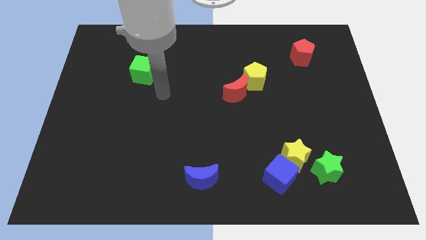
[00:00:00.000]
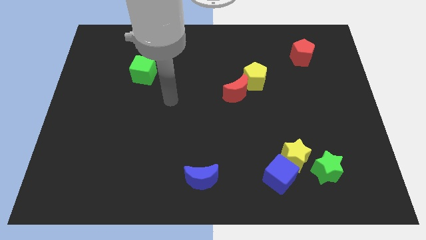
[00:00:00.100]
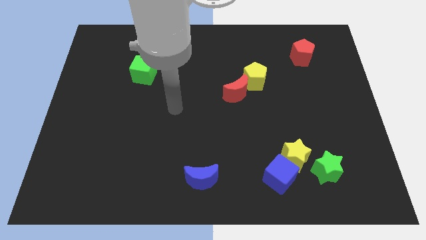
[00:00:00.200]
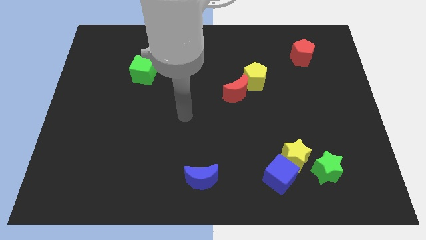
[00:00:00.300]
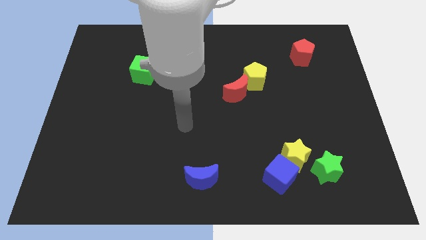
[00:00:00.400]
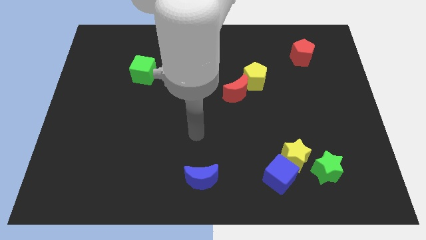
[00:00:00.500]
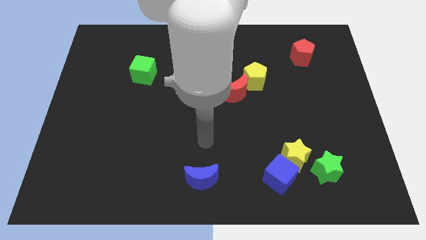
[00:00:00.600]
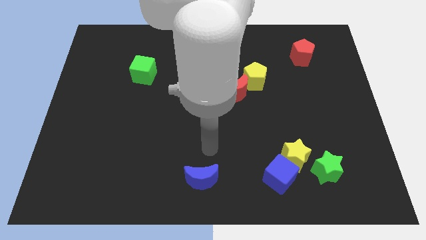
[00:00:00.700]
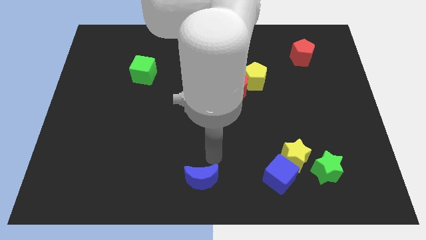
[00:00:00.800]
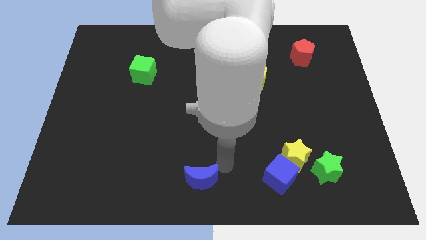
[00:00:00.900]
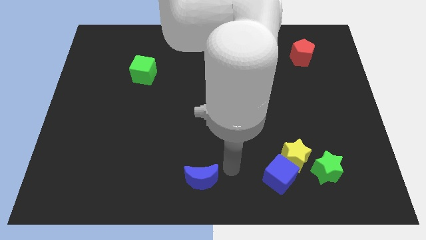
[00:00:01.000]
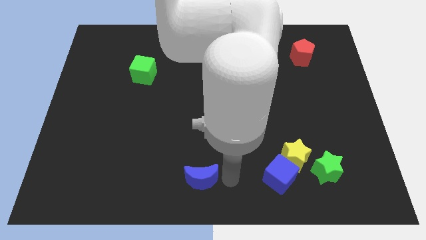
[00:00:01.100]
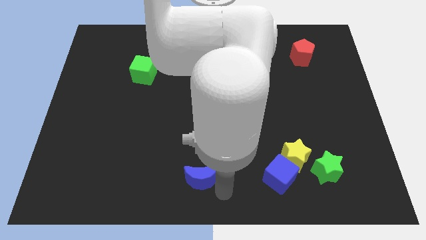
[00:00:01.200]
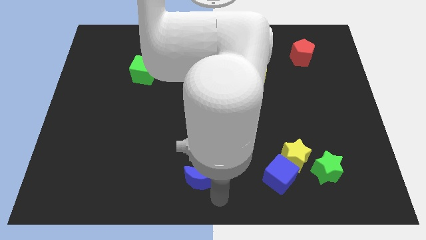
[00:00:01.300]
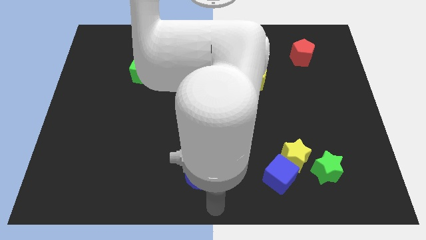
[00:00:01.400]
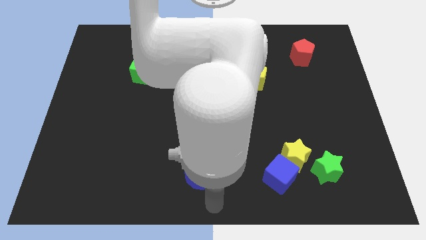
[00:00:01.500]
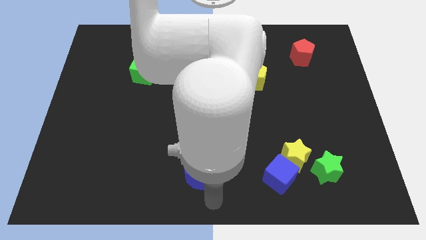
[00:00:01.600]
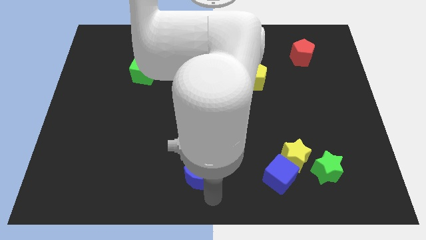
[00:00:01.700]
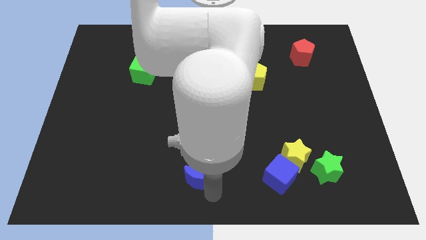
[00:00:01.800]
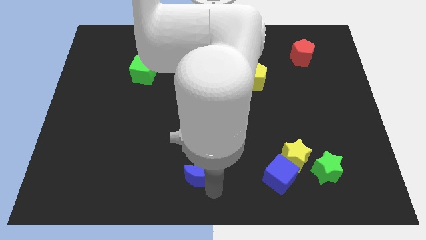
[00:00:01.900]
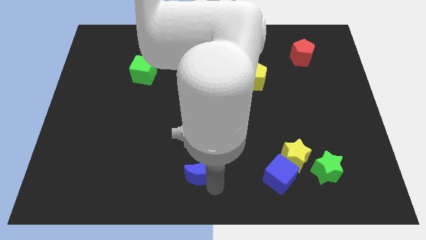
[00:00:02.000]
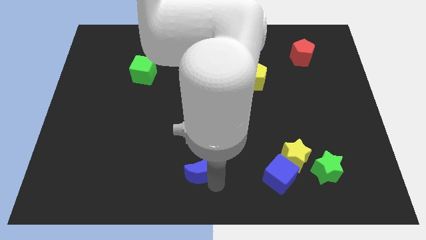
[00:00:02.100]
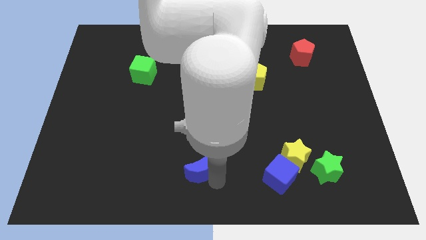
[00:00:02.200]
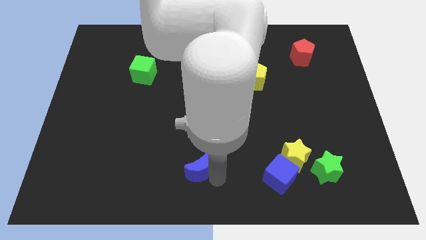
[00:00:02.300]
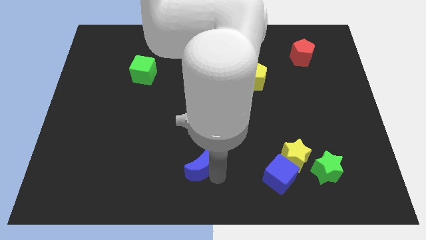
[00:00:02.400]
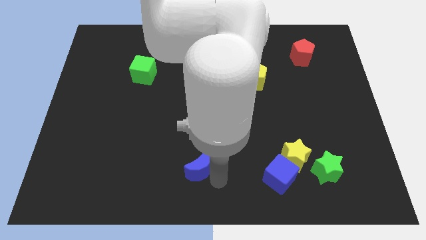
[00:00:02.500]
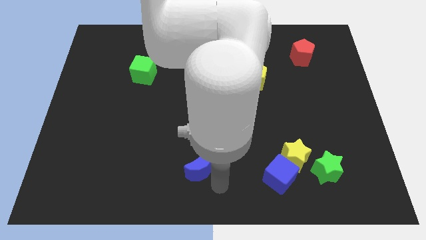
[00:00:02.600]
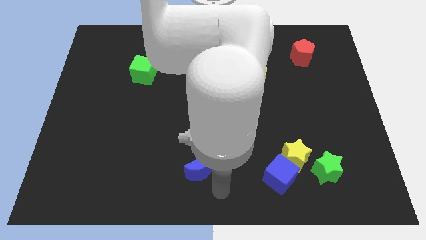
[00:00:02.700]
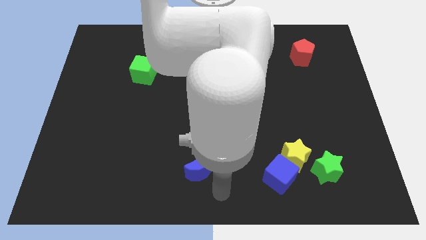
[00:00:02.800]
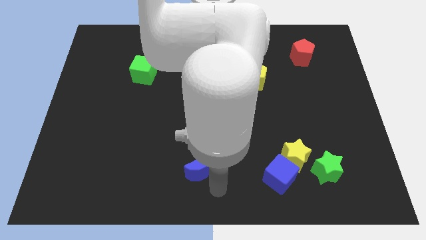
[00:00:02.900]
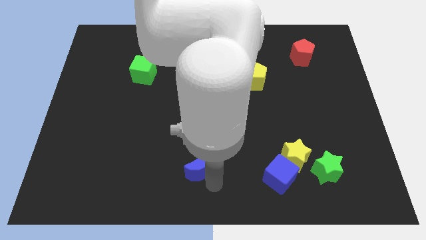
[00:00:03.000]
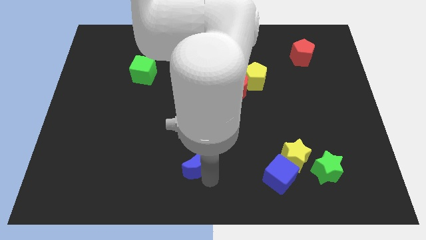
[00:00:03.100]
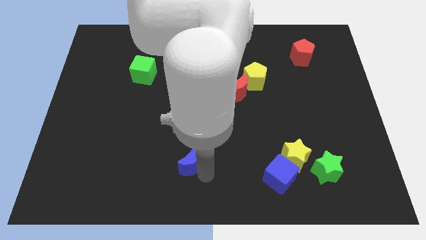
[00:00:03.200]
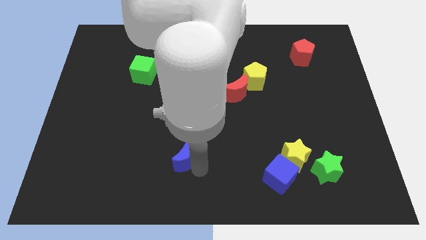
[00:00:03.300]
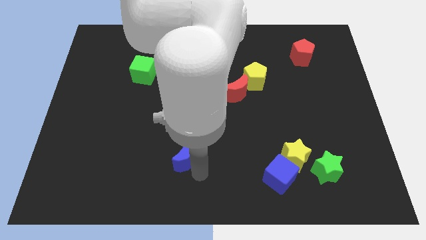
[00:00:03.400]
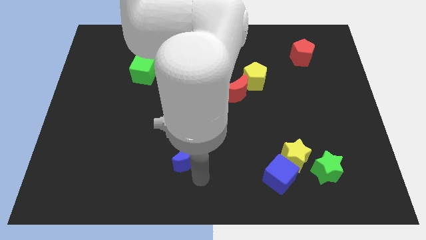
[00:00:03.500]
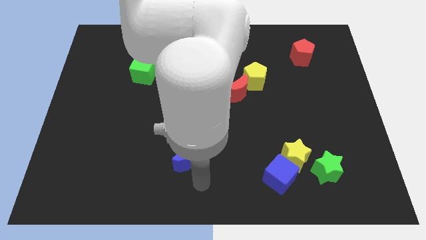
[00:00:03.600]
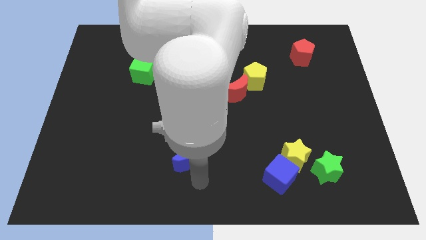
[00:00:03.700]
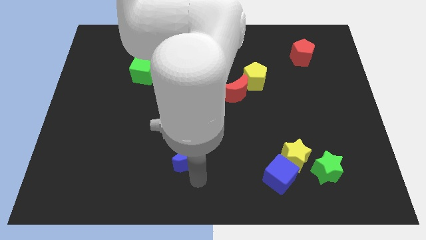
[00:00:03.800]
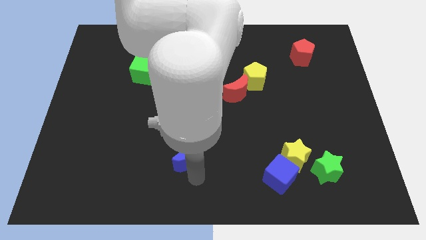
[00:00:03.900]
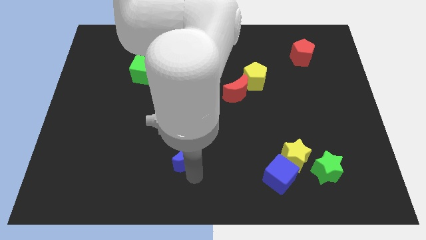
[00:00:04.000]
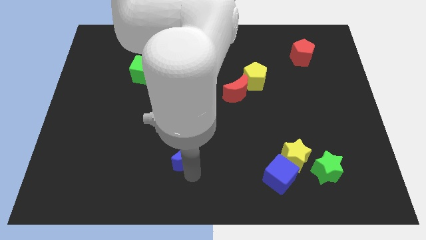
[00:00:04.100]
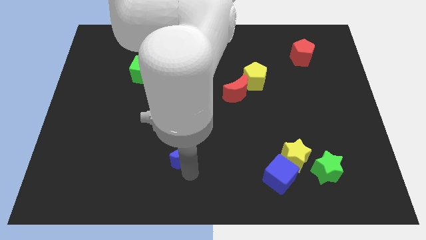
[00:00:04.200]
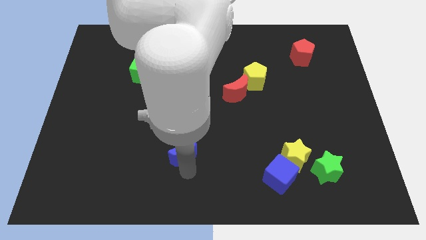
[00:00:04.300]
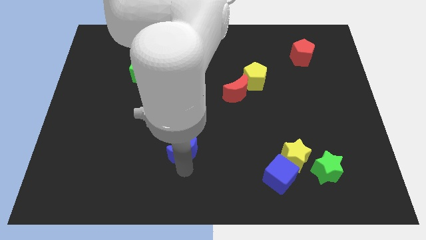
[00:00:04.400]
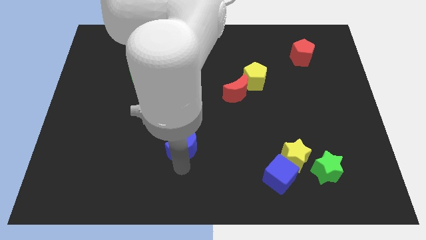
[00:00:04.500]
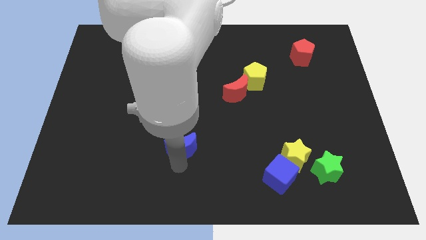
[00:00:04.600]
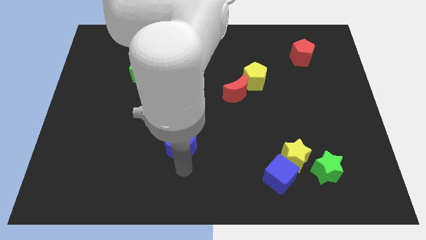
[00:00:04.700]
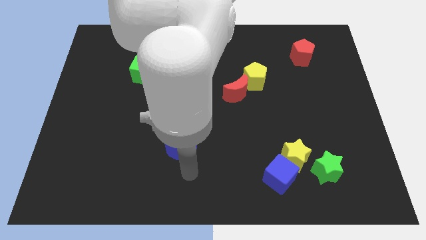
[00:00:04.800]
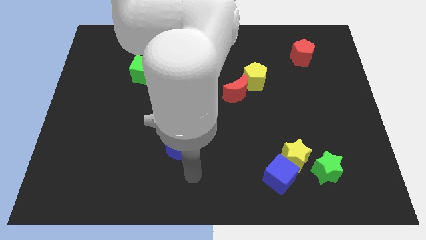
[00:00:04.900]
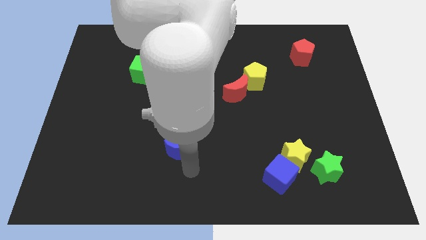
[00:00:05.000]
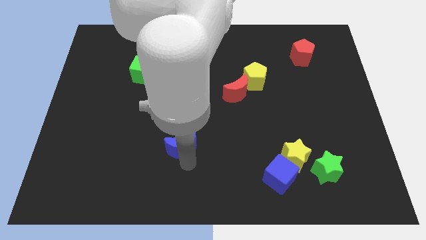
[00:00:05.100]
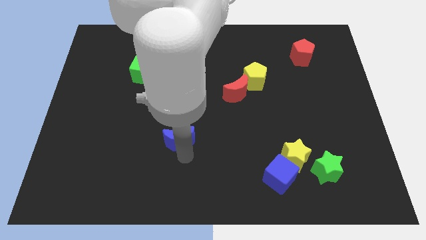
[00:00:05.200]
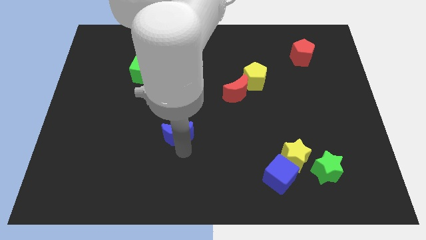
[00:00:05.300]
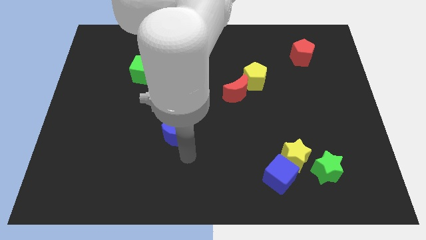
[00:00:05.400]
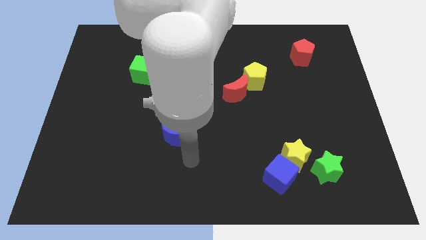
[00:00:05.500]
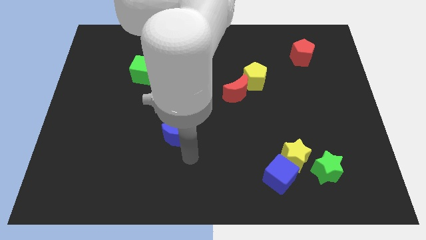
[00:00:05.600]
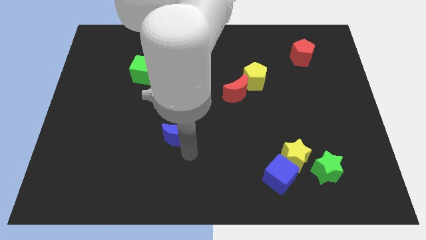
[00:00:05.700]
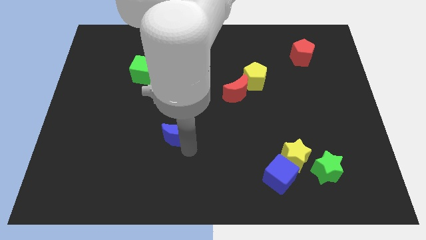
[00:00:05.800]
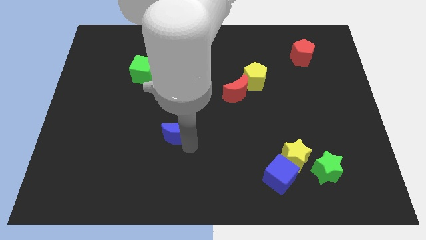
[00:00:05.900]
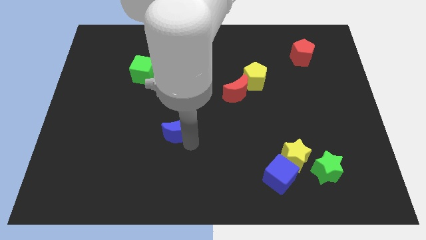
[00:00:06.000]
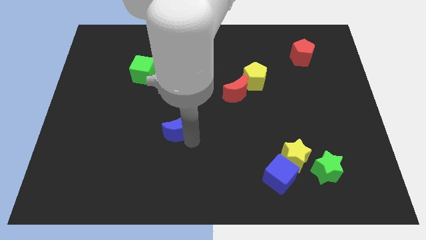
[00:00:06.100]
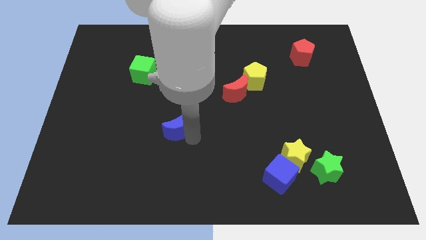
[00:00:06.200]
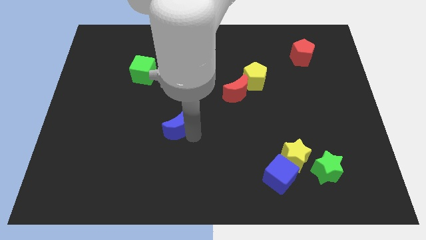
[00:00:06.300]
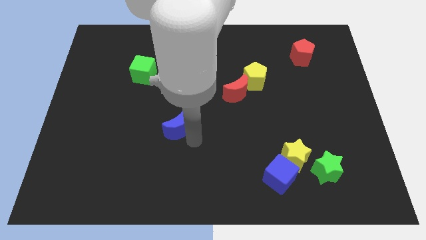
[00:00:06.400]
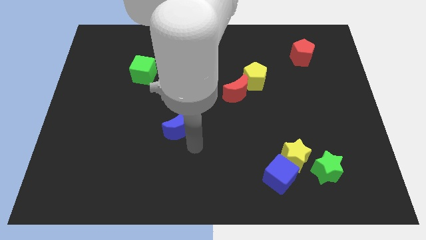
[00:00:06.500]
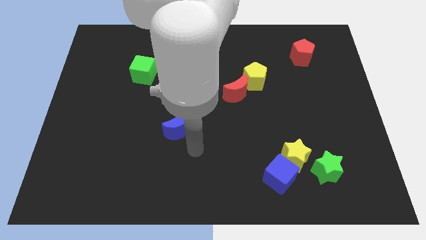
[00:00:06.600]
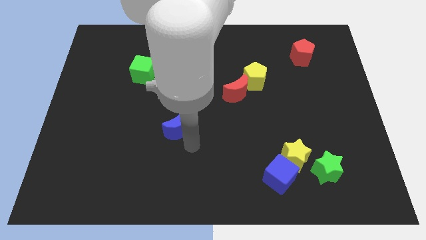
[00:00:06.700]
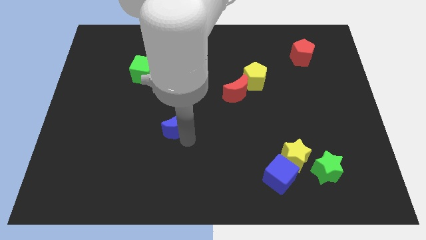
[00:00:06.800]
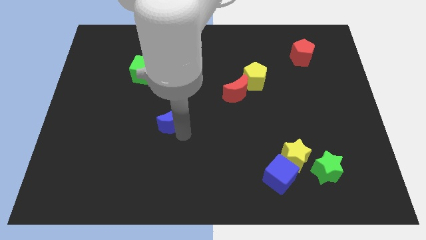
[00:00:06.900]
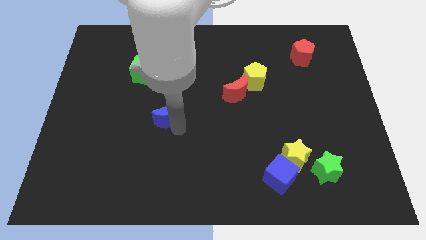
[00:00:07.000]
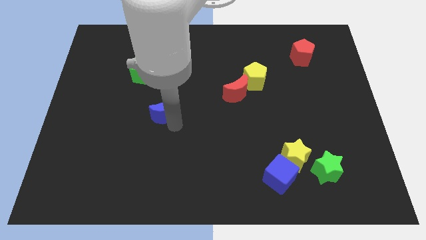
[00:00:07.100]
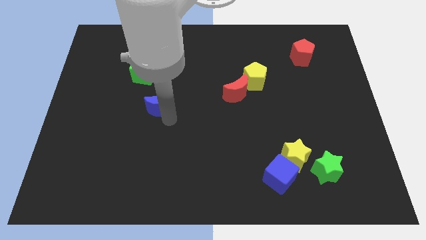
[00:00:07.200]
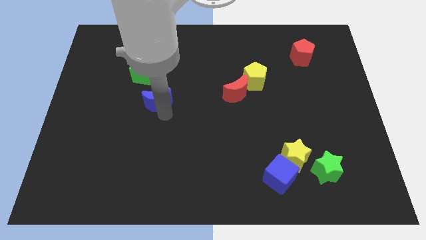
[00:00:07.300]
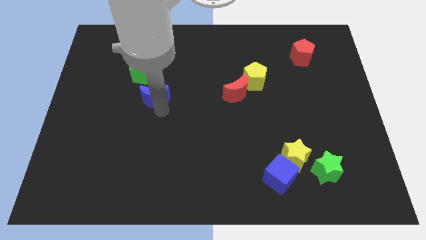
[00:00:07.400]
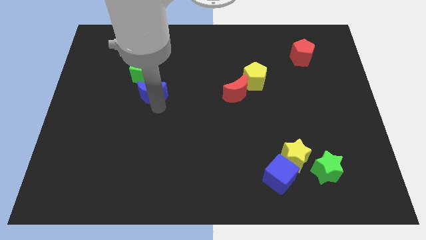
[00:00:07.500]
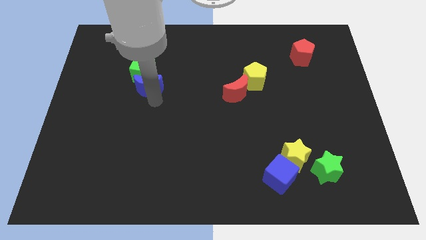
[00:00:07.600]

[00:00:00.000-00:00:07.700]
put the blue moon close to the green cube
